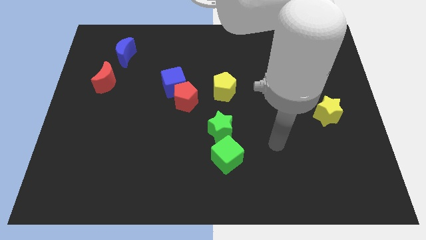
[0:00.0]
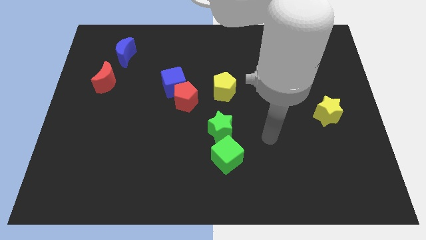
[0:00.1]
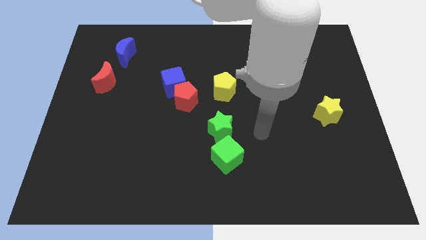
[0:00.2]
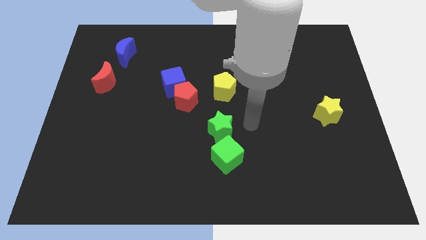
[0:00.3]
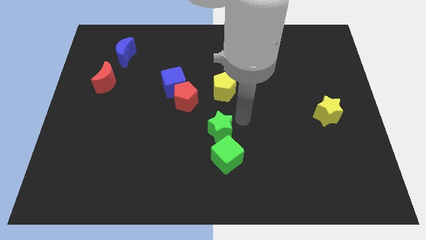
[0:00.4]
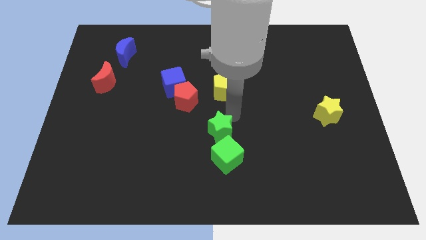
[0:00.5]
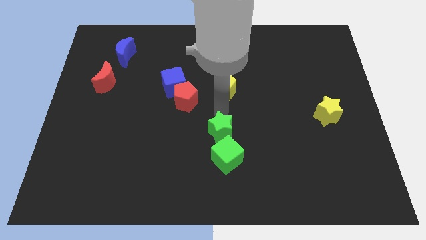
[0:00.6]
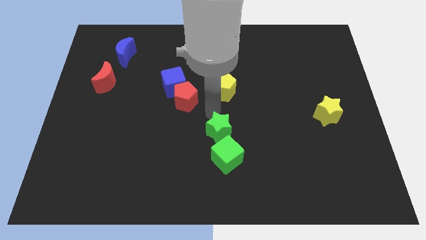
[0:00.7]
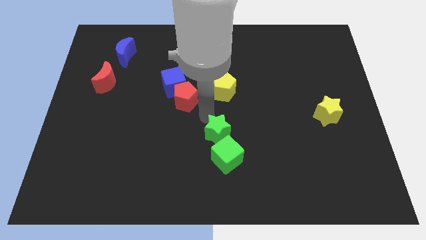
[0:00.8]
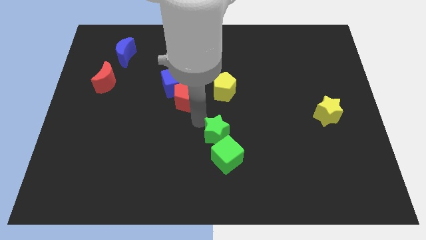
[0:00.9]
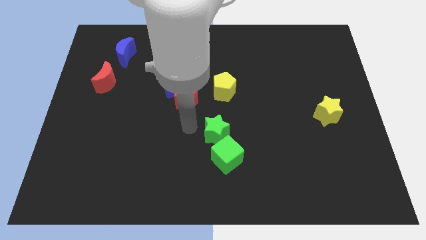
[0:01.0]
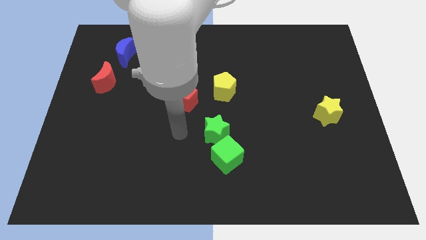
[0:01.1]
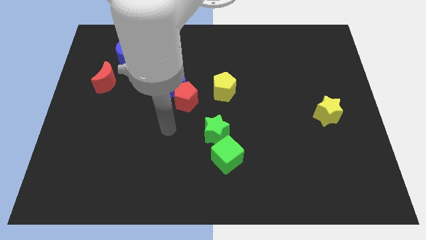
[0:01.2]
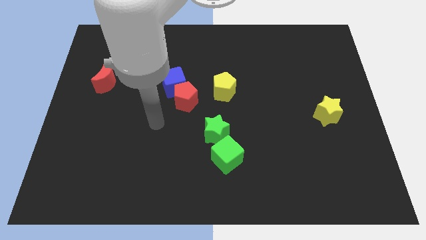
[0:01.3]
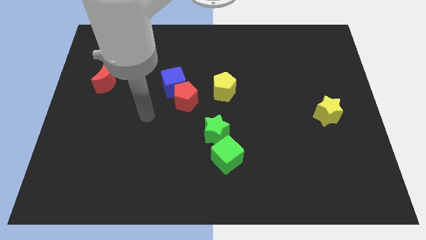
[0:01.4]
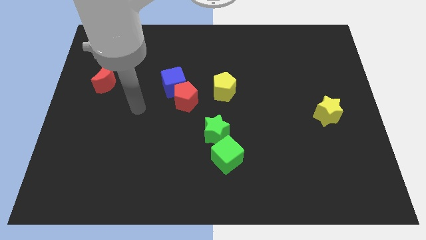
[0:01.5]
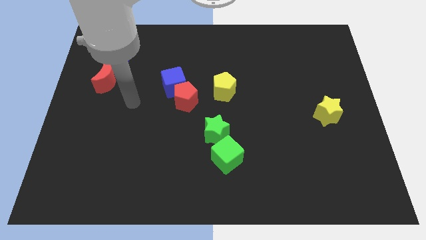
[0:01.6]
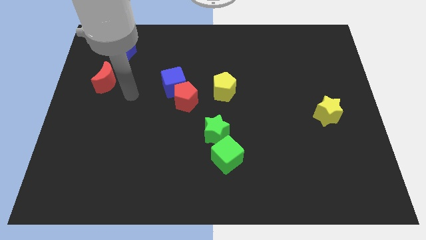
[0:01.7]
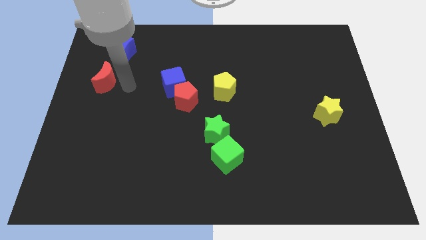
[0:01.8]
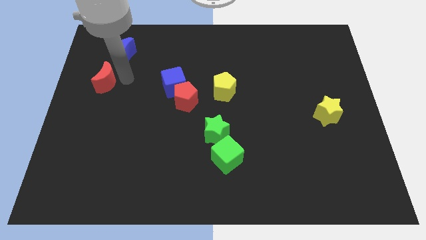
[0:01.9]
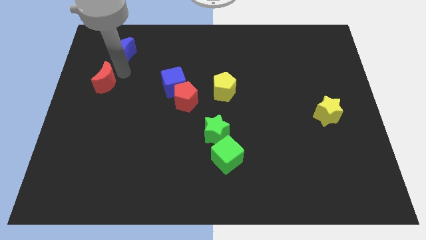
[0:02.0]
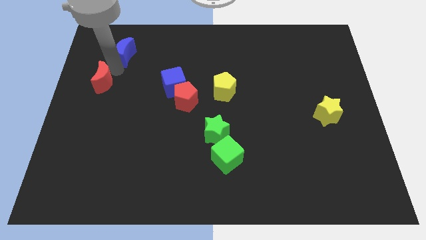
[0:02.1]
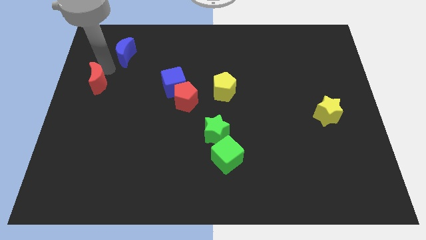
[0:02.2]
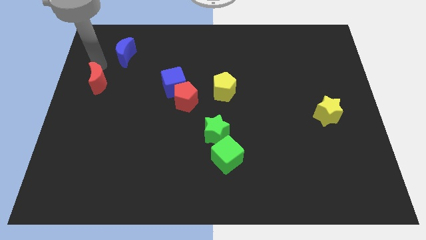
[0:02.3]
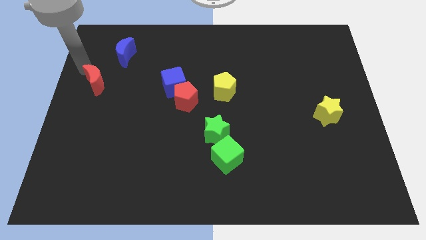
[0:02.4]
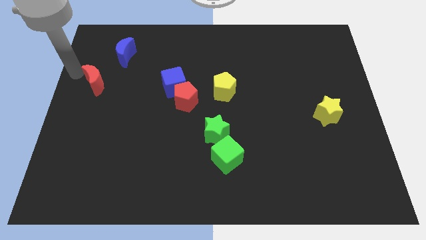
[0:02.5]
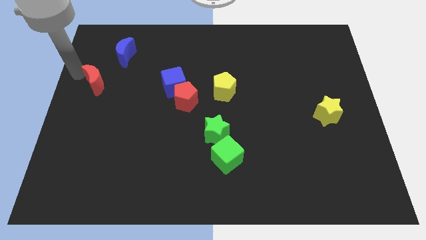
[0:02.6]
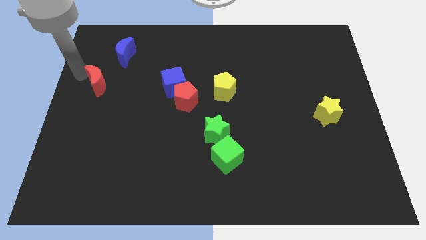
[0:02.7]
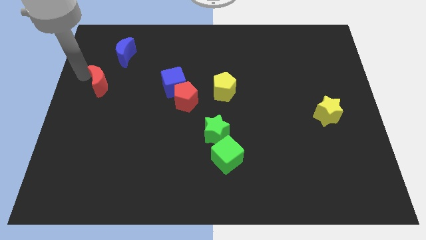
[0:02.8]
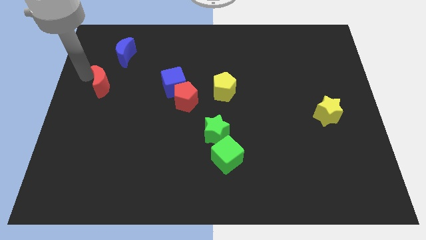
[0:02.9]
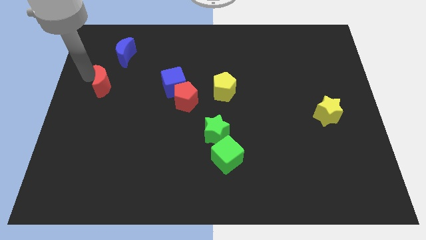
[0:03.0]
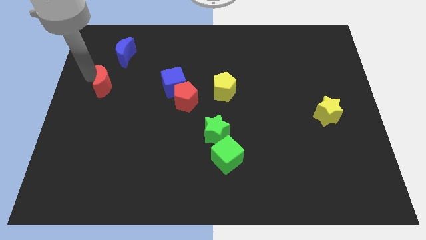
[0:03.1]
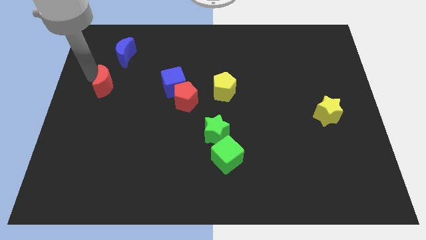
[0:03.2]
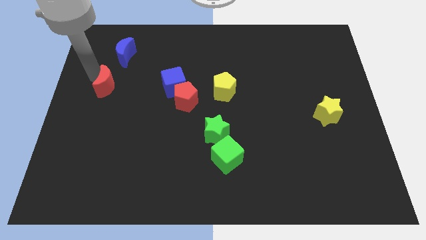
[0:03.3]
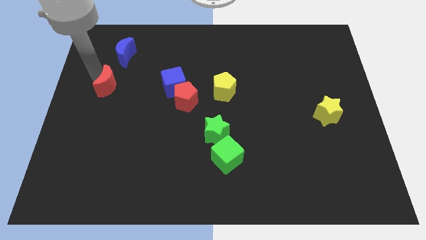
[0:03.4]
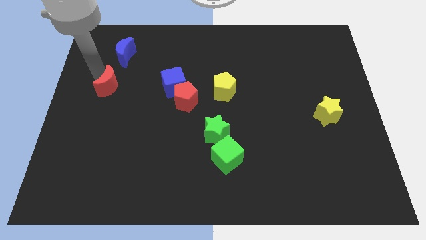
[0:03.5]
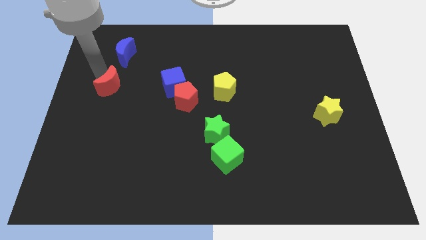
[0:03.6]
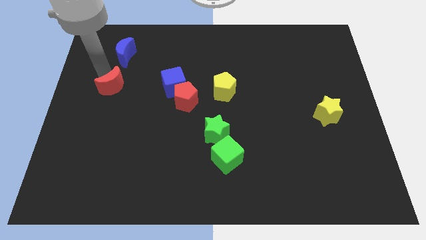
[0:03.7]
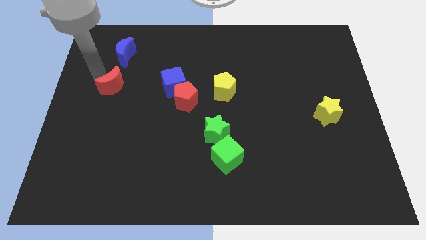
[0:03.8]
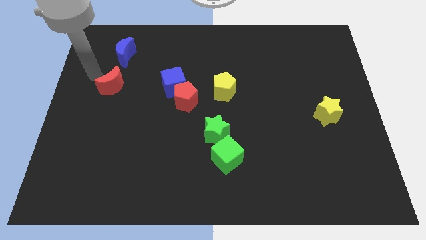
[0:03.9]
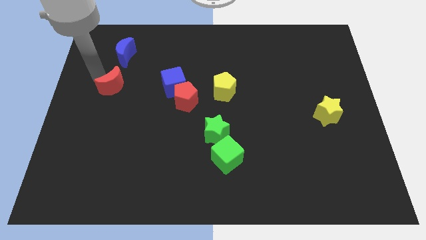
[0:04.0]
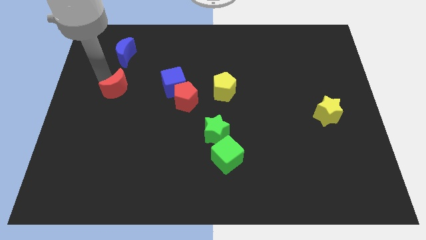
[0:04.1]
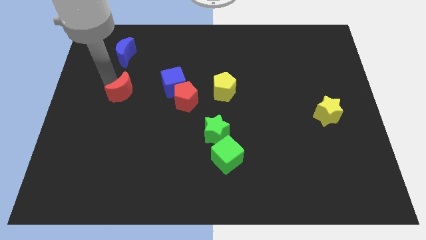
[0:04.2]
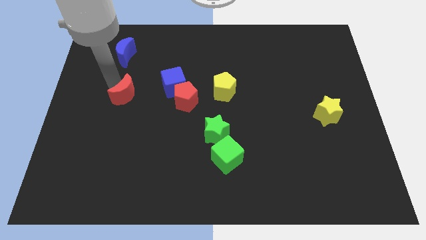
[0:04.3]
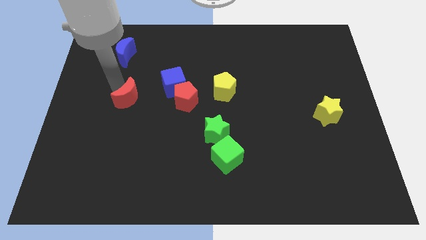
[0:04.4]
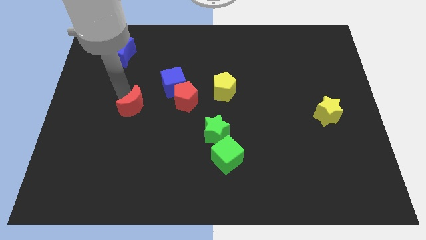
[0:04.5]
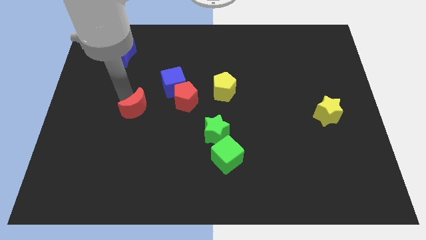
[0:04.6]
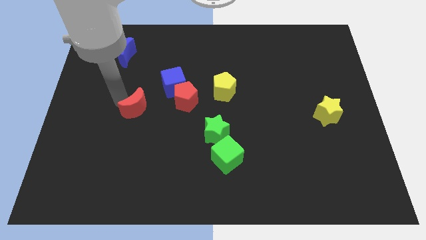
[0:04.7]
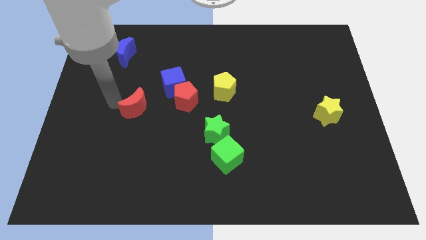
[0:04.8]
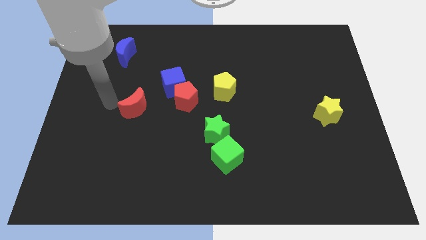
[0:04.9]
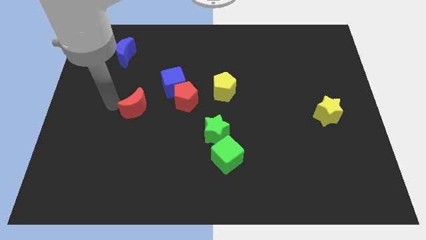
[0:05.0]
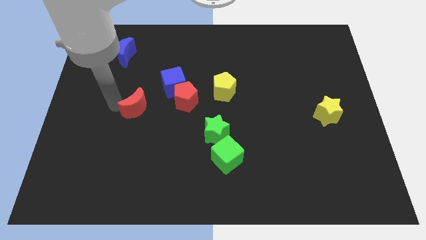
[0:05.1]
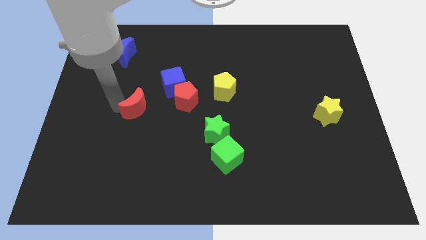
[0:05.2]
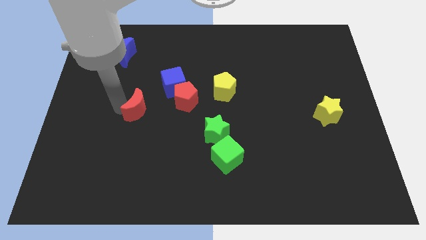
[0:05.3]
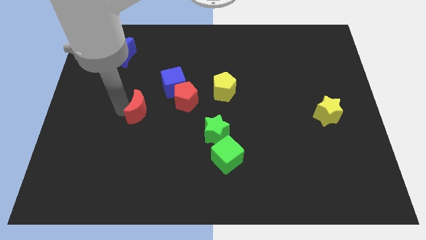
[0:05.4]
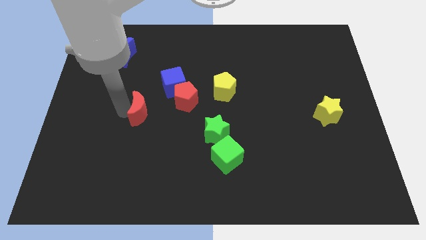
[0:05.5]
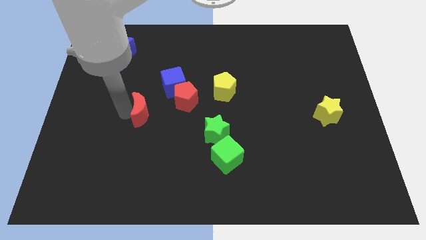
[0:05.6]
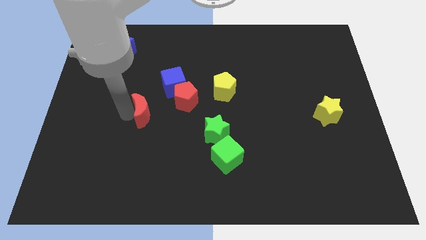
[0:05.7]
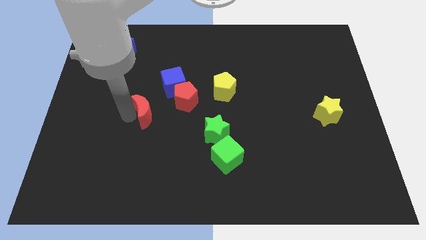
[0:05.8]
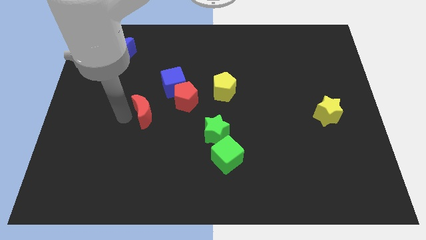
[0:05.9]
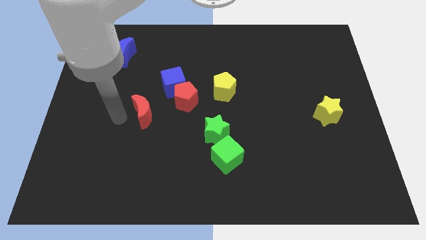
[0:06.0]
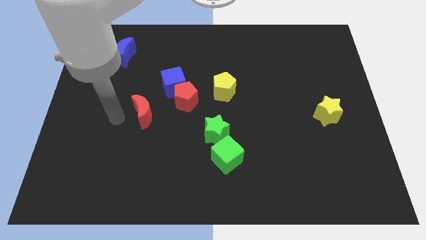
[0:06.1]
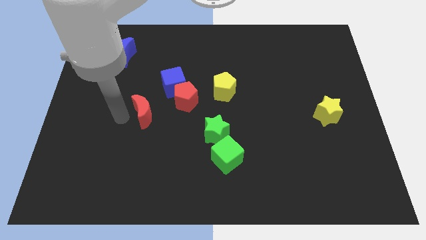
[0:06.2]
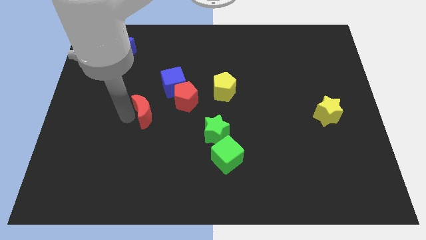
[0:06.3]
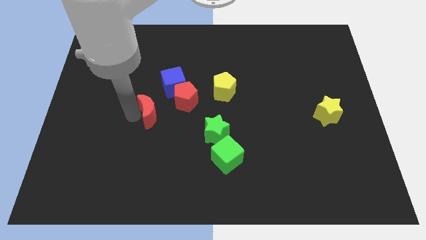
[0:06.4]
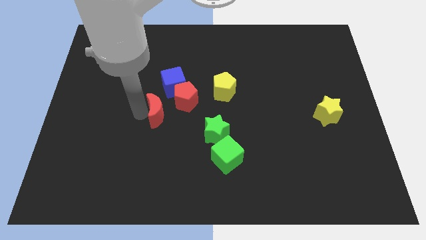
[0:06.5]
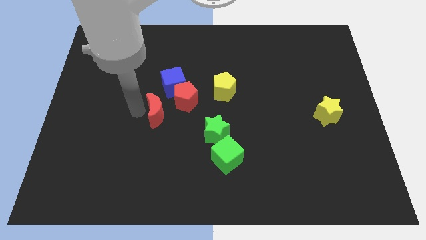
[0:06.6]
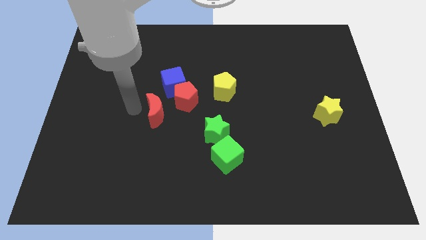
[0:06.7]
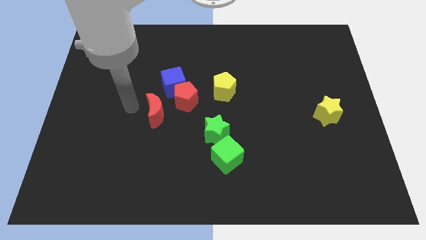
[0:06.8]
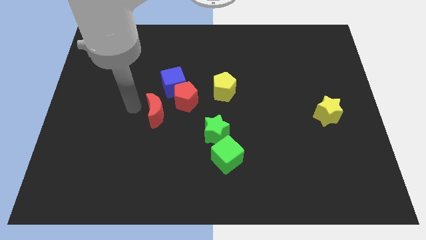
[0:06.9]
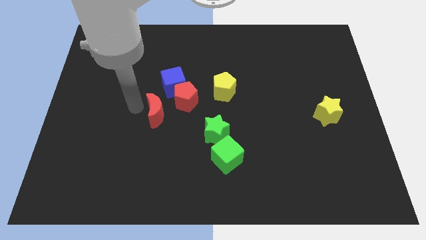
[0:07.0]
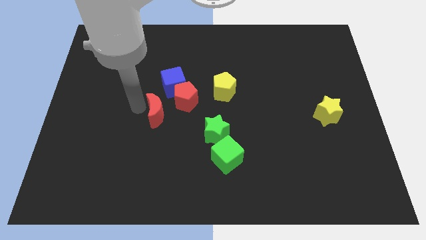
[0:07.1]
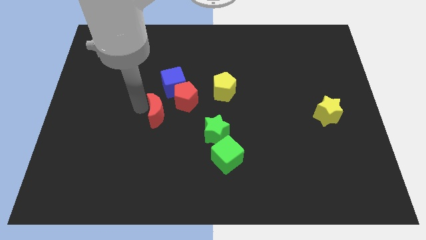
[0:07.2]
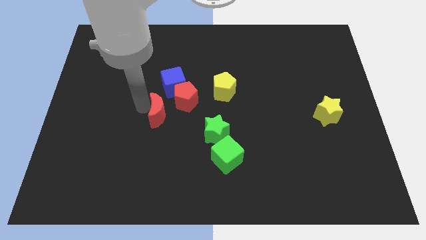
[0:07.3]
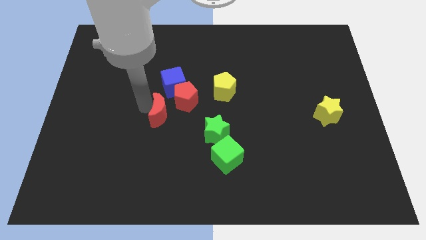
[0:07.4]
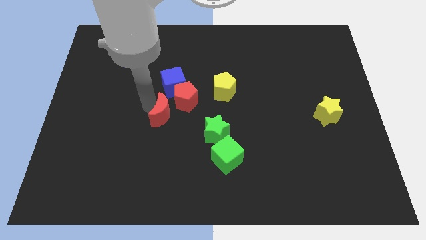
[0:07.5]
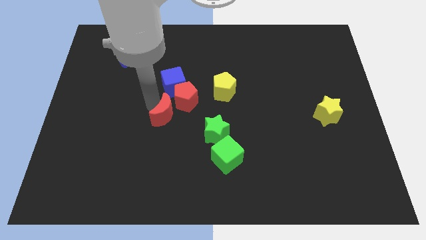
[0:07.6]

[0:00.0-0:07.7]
move the red moon to the bottom of the red pentagon
